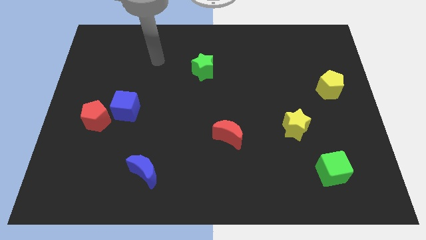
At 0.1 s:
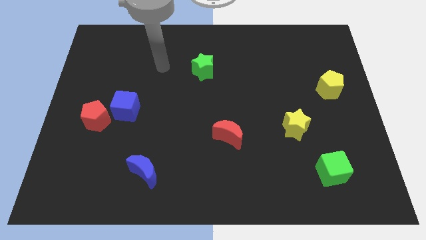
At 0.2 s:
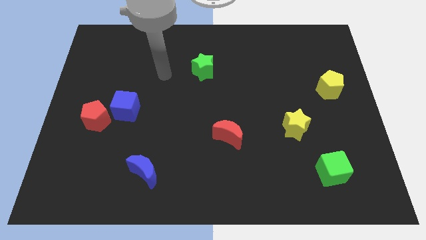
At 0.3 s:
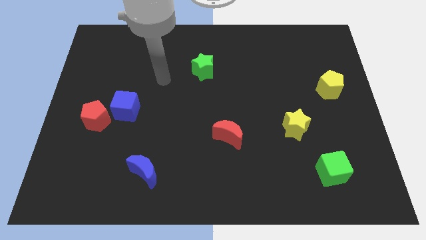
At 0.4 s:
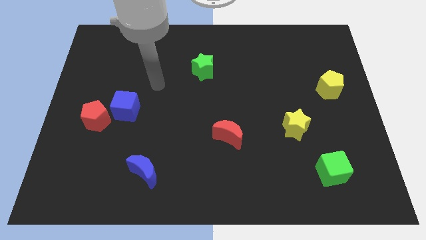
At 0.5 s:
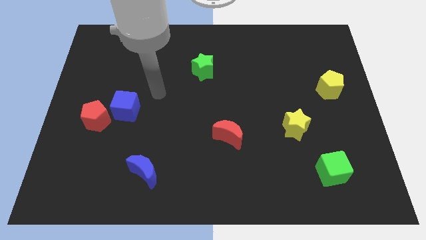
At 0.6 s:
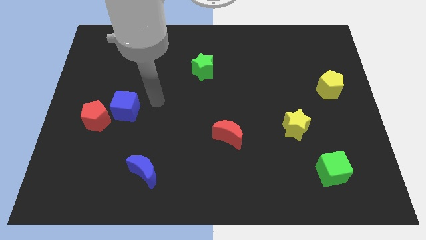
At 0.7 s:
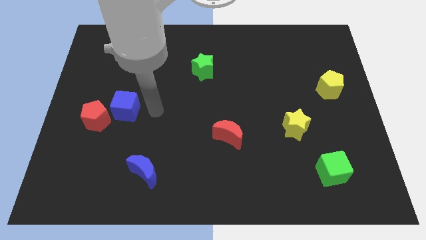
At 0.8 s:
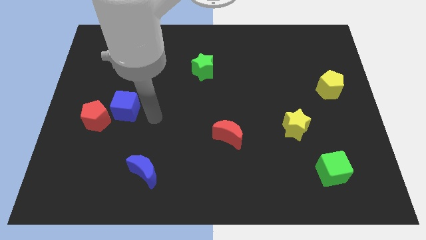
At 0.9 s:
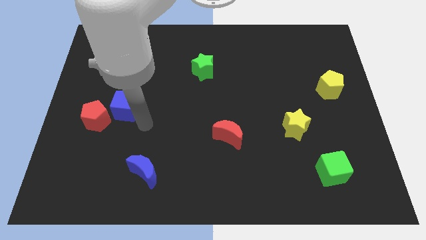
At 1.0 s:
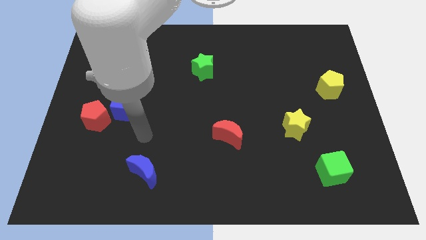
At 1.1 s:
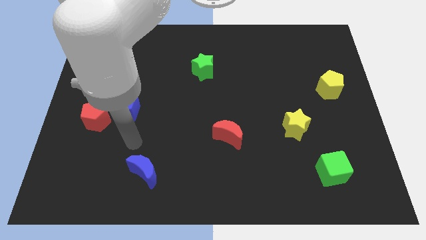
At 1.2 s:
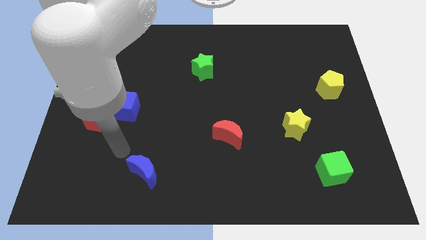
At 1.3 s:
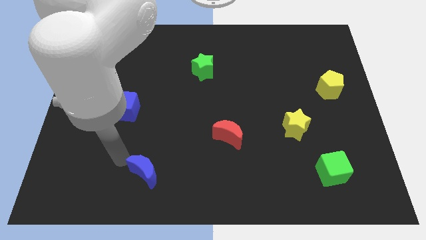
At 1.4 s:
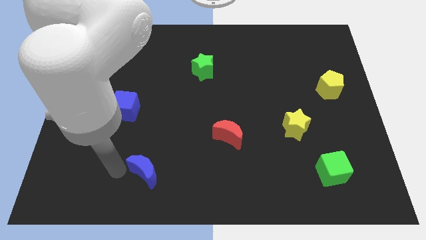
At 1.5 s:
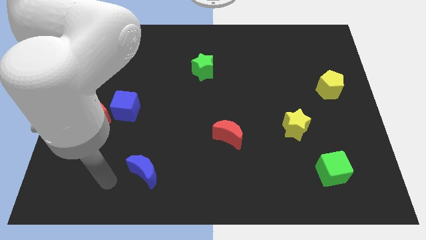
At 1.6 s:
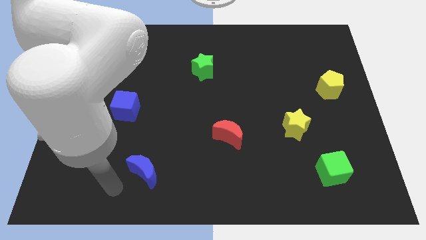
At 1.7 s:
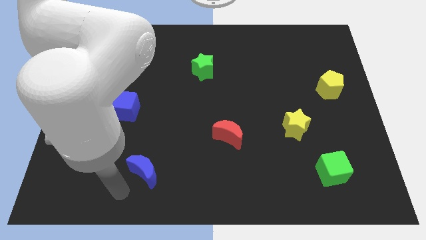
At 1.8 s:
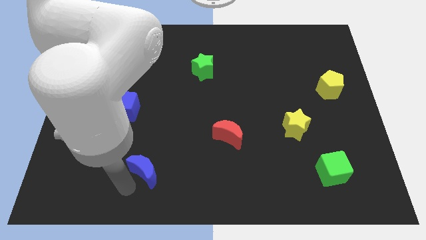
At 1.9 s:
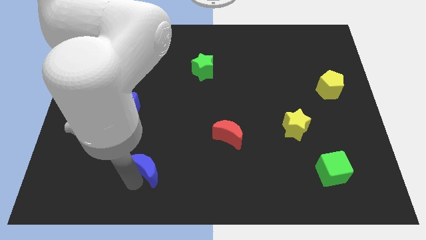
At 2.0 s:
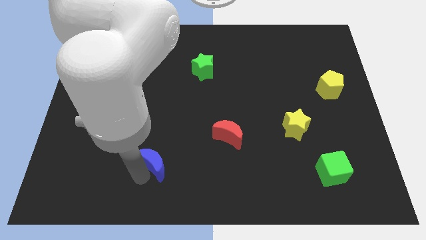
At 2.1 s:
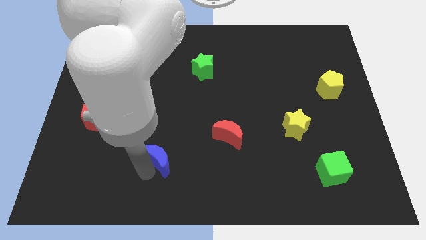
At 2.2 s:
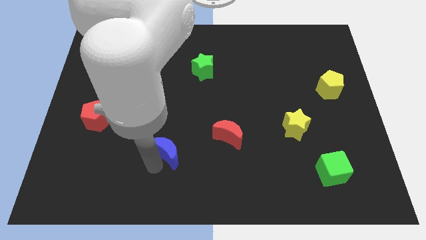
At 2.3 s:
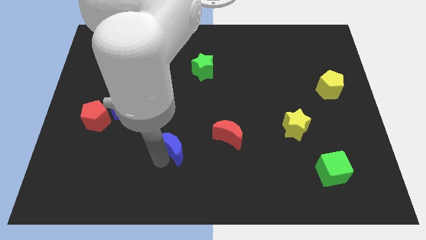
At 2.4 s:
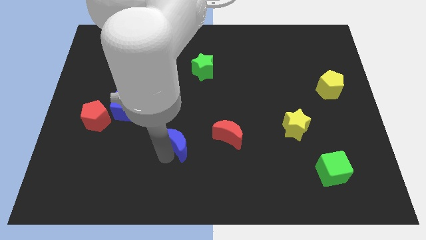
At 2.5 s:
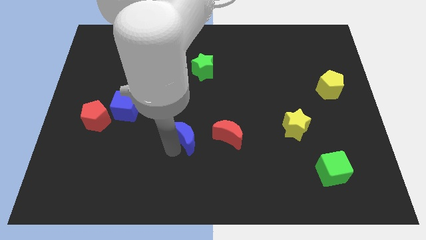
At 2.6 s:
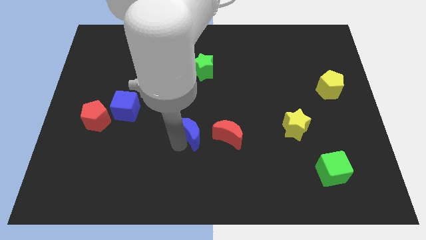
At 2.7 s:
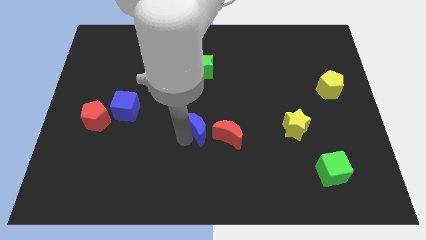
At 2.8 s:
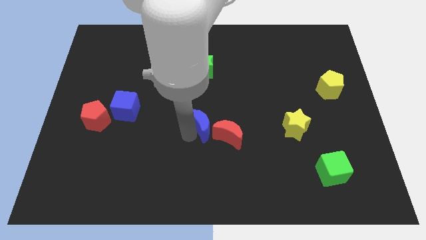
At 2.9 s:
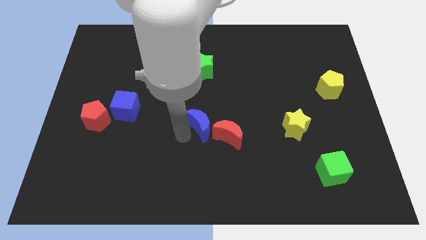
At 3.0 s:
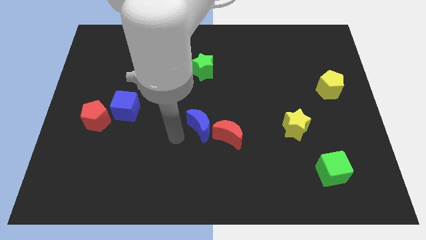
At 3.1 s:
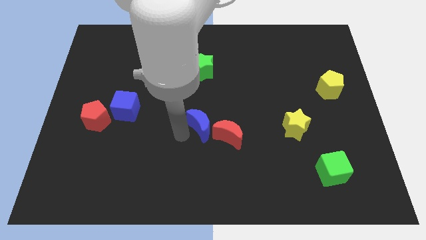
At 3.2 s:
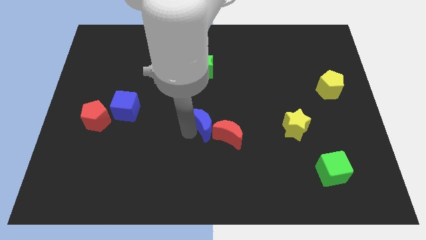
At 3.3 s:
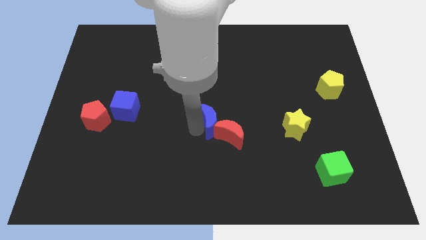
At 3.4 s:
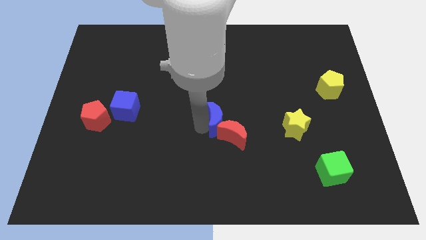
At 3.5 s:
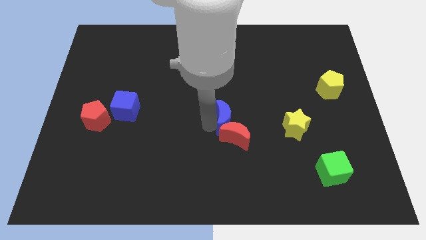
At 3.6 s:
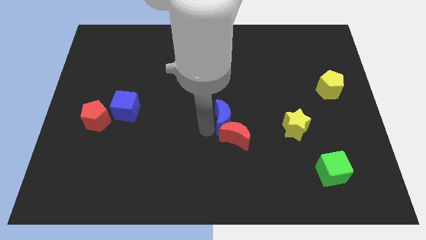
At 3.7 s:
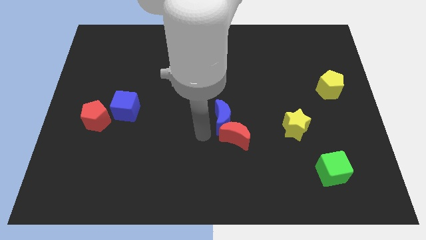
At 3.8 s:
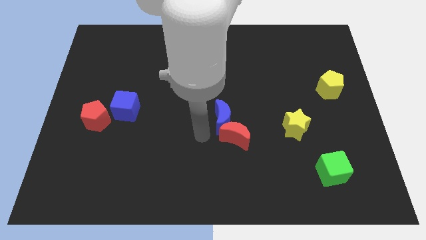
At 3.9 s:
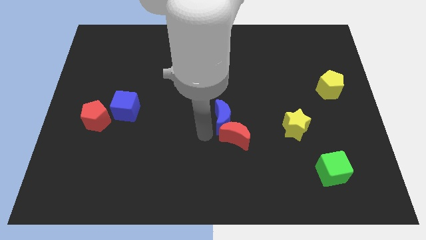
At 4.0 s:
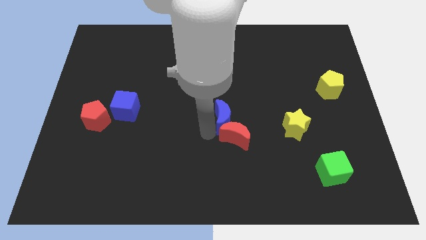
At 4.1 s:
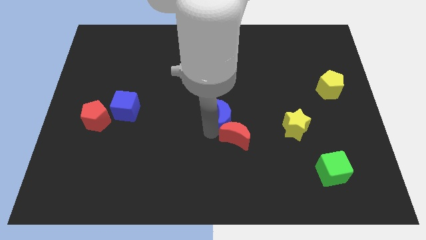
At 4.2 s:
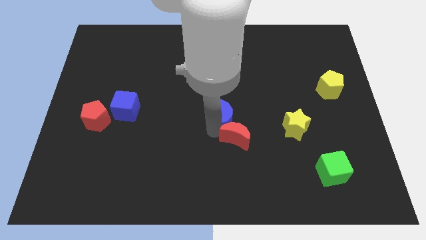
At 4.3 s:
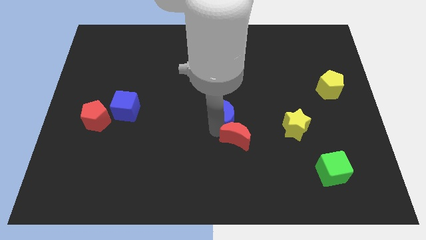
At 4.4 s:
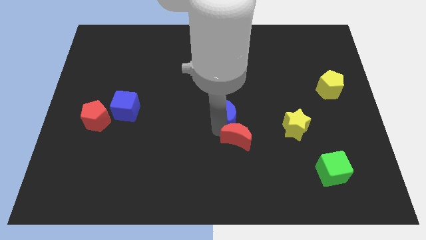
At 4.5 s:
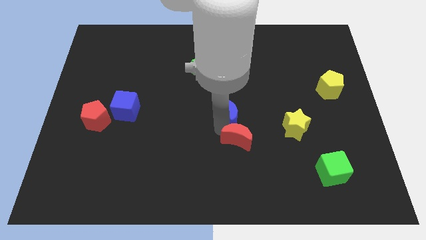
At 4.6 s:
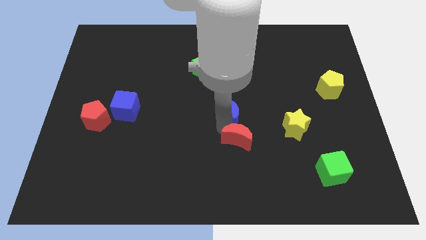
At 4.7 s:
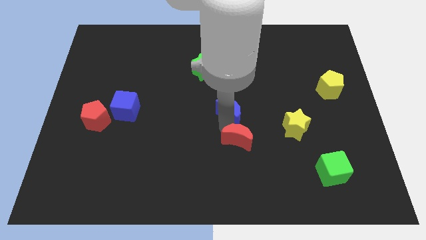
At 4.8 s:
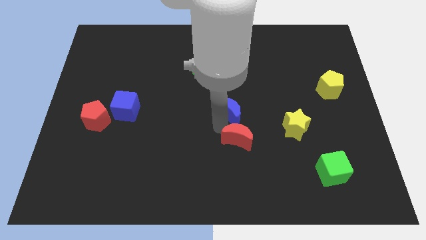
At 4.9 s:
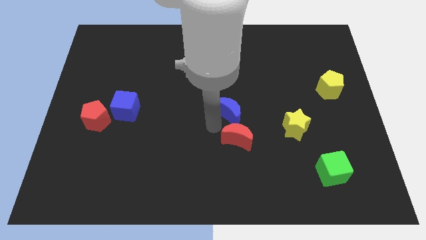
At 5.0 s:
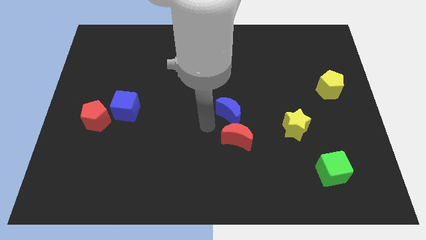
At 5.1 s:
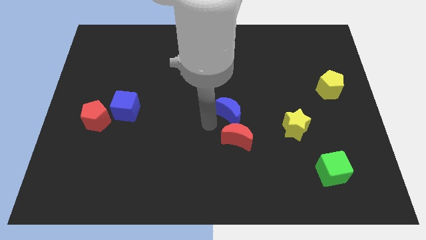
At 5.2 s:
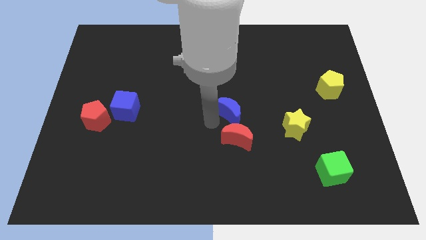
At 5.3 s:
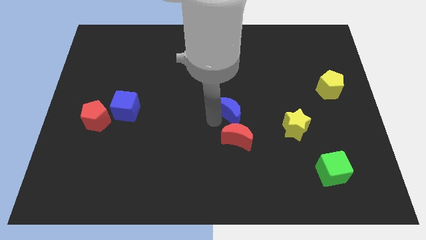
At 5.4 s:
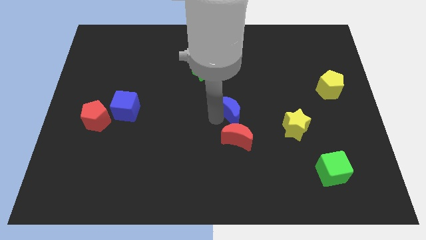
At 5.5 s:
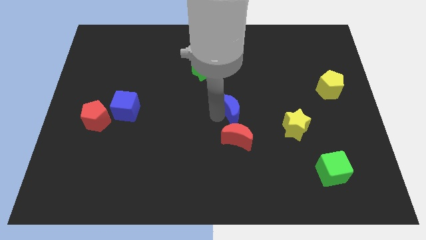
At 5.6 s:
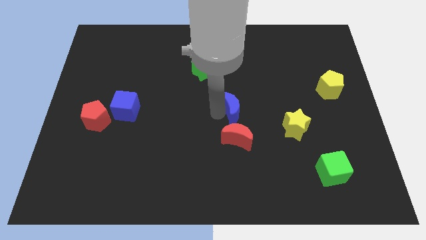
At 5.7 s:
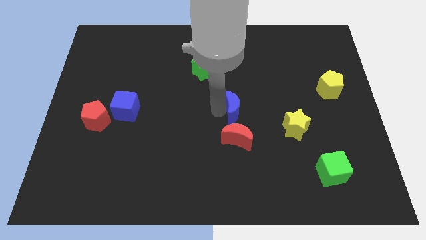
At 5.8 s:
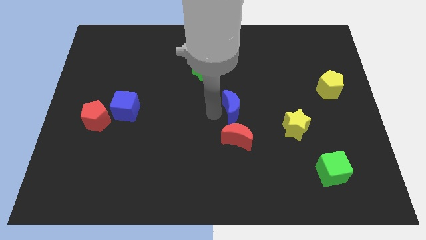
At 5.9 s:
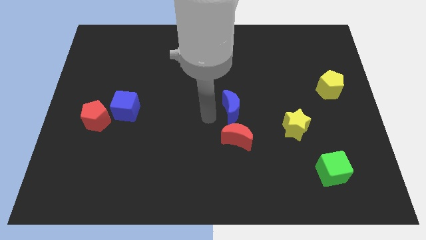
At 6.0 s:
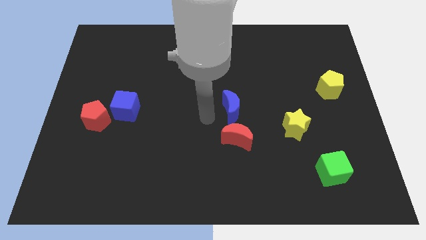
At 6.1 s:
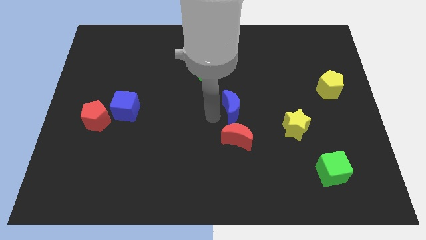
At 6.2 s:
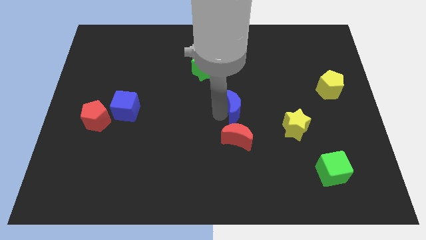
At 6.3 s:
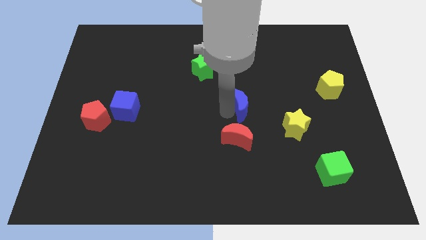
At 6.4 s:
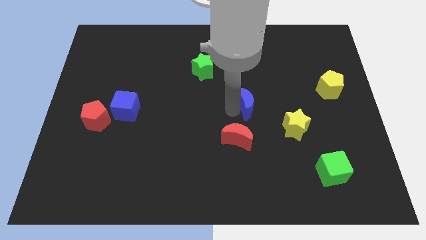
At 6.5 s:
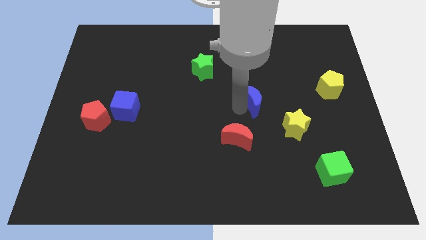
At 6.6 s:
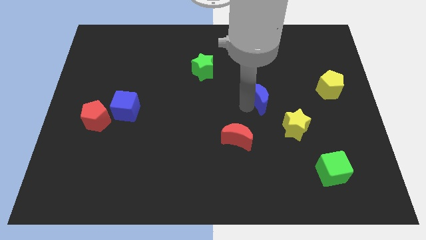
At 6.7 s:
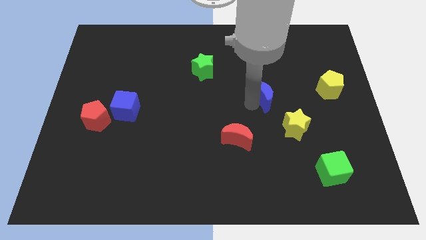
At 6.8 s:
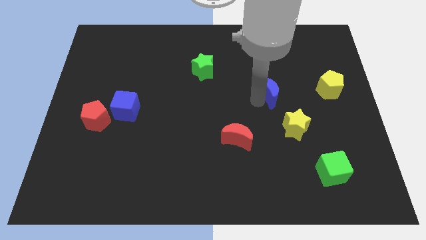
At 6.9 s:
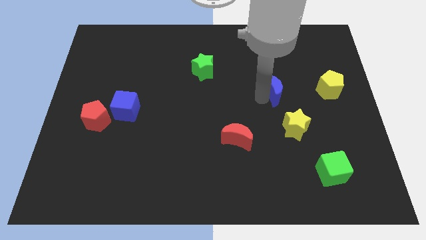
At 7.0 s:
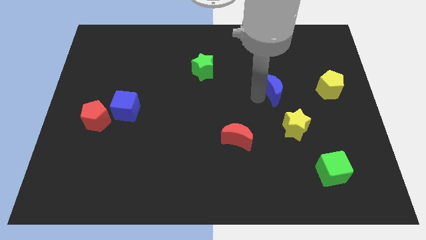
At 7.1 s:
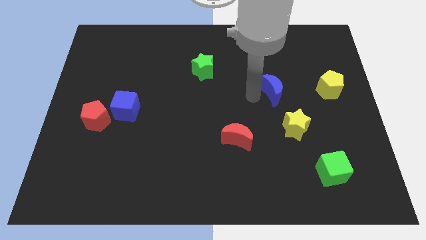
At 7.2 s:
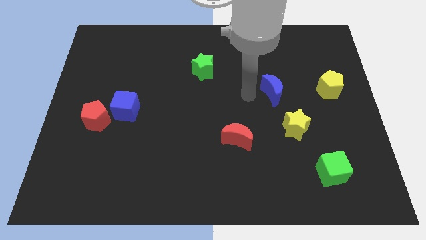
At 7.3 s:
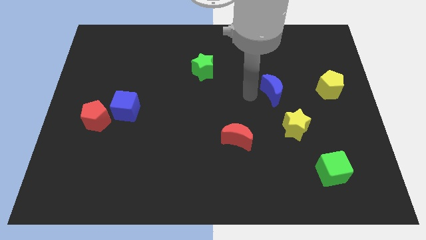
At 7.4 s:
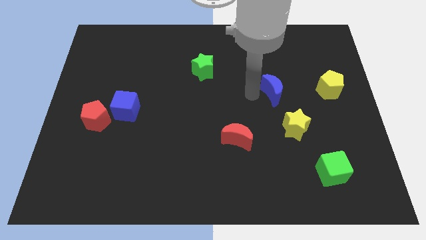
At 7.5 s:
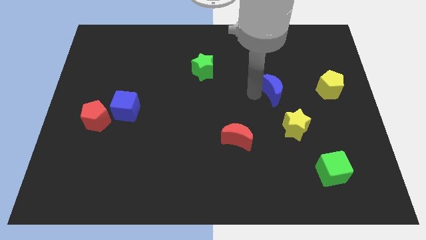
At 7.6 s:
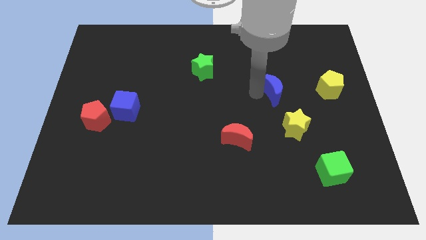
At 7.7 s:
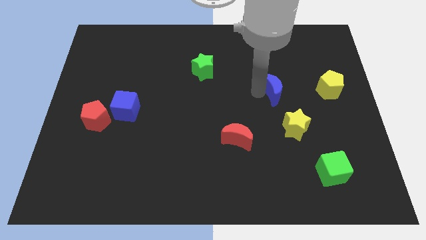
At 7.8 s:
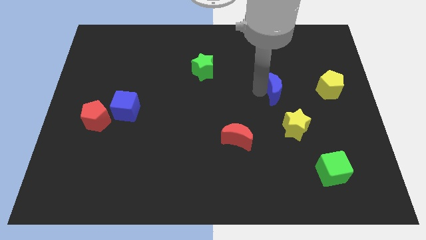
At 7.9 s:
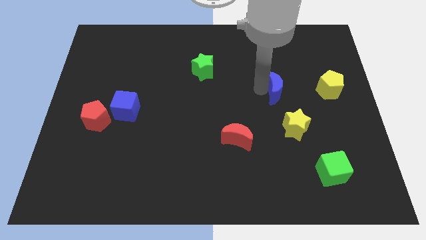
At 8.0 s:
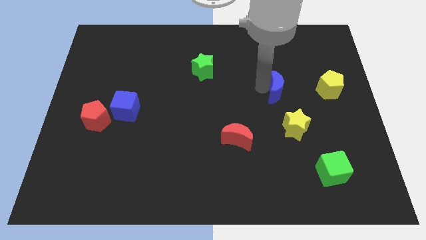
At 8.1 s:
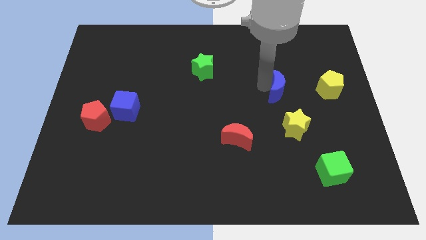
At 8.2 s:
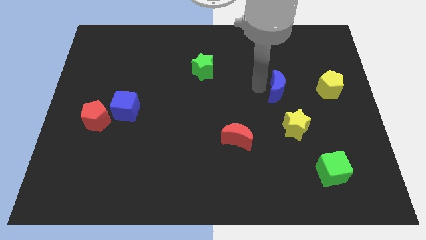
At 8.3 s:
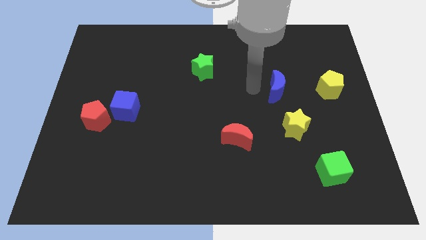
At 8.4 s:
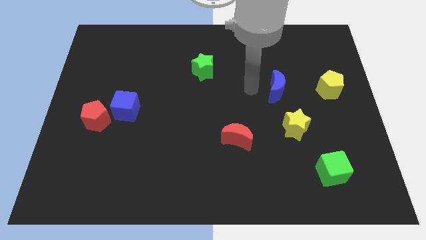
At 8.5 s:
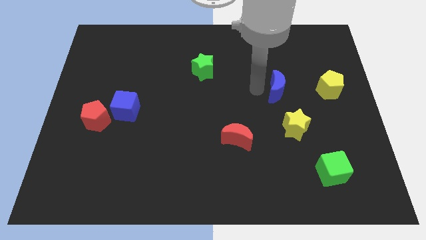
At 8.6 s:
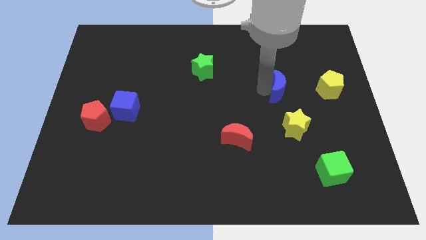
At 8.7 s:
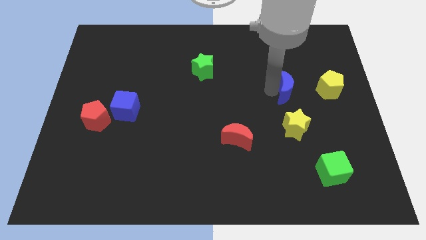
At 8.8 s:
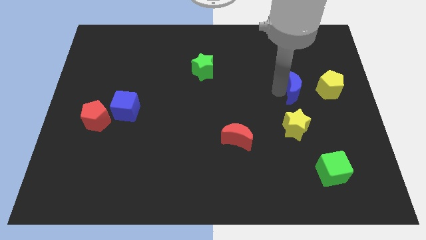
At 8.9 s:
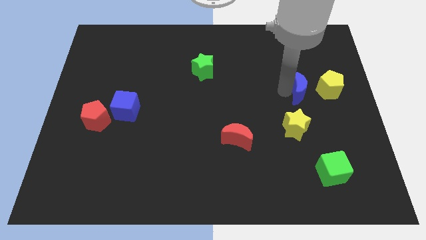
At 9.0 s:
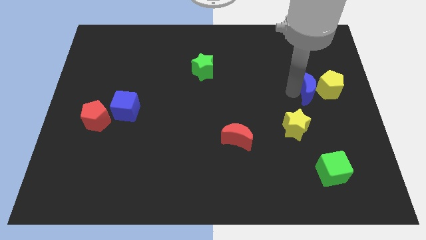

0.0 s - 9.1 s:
slide the blue moon next to the yellow pentagon
